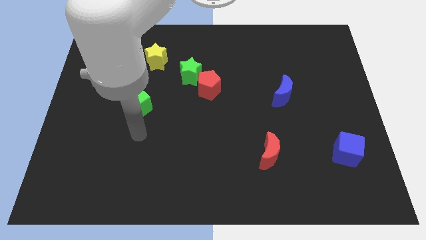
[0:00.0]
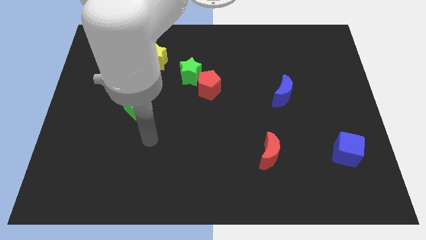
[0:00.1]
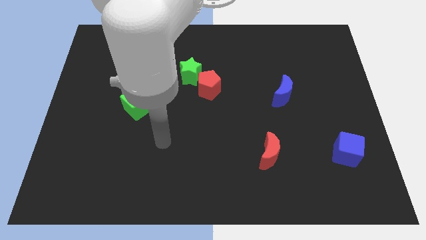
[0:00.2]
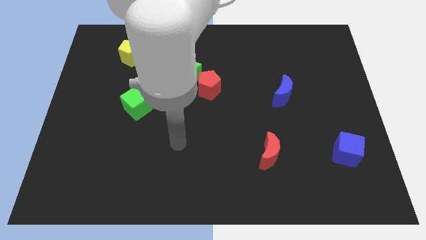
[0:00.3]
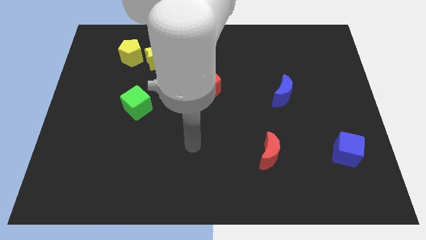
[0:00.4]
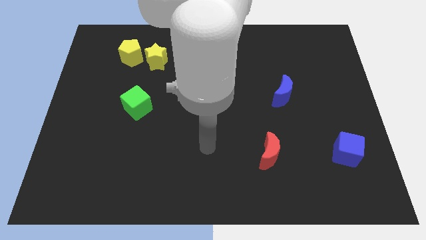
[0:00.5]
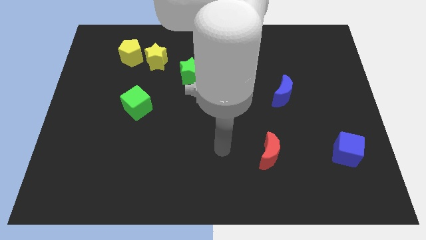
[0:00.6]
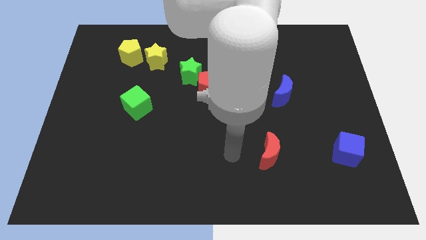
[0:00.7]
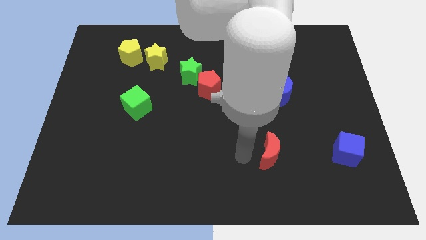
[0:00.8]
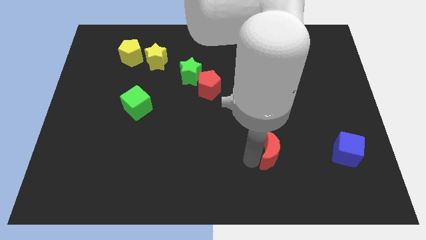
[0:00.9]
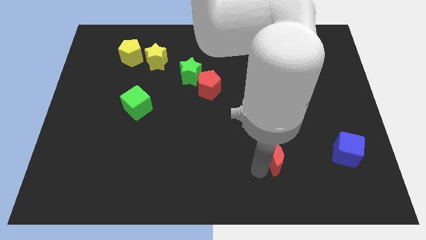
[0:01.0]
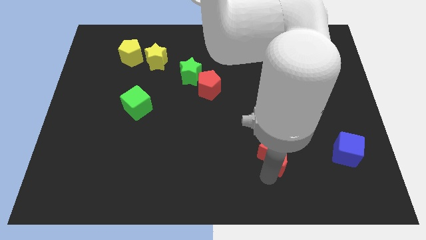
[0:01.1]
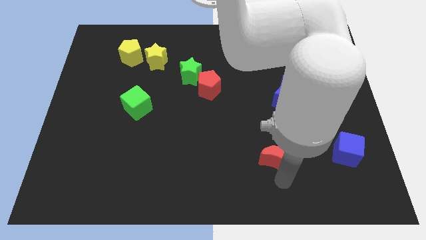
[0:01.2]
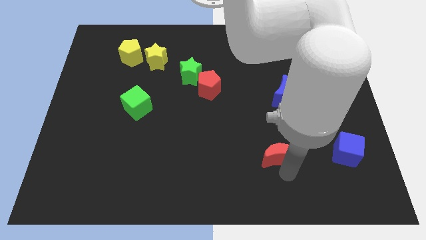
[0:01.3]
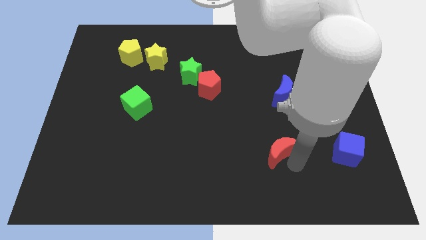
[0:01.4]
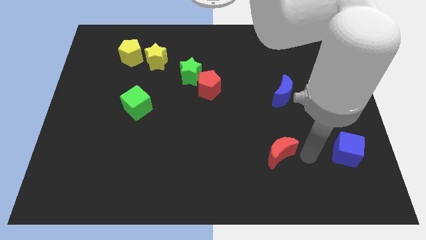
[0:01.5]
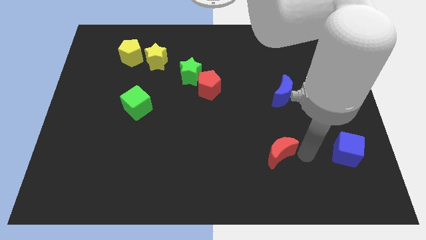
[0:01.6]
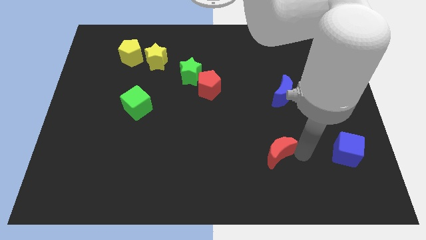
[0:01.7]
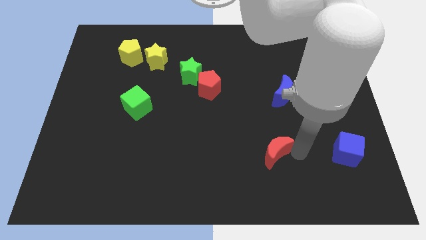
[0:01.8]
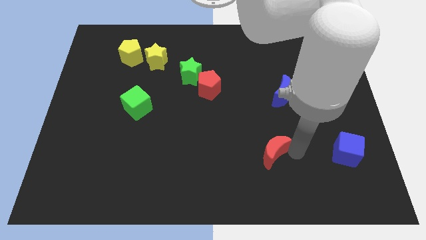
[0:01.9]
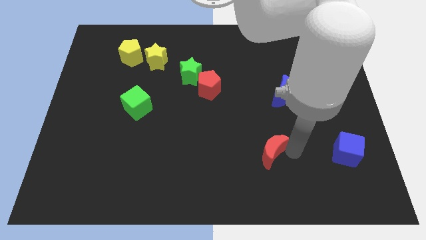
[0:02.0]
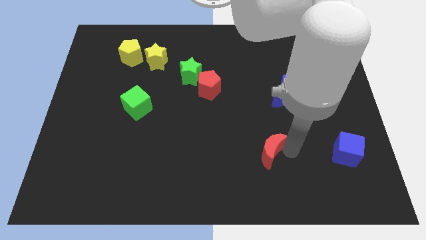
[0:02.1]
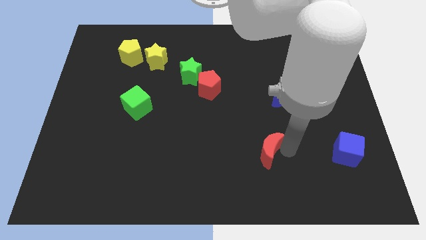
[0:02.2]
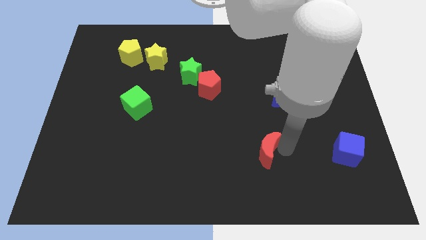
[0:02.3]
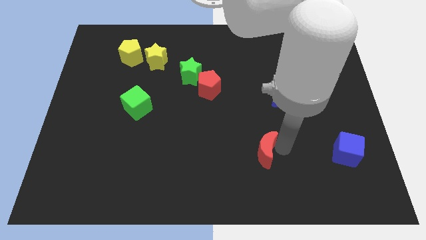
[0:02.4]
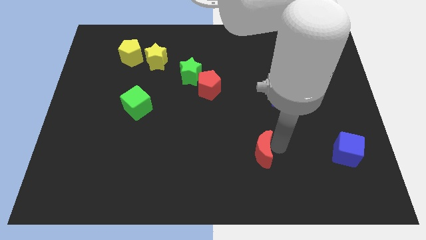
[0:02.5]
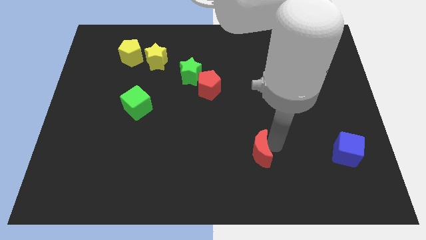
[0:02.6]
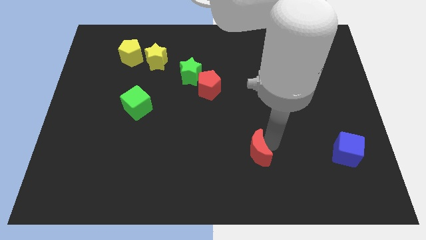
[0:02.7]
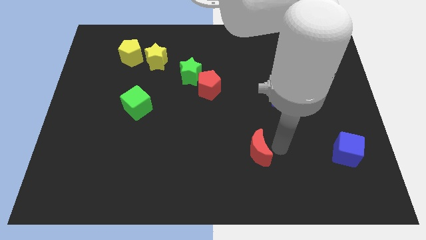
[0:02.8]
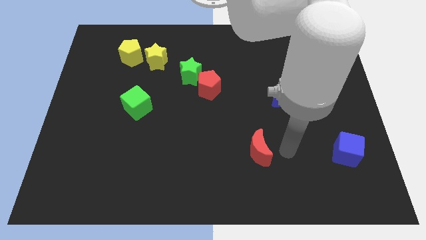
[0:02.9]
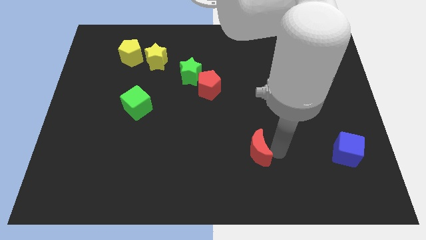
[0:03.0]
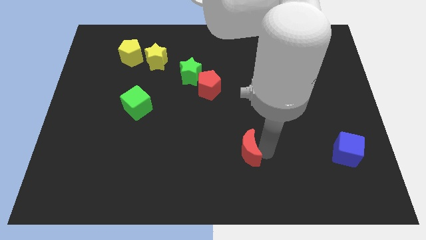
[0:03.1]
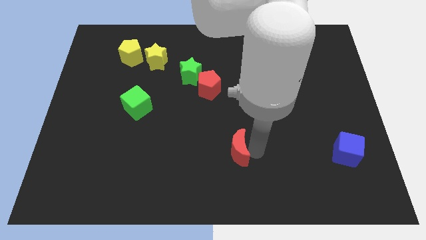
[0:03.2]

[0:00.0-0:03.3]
slightly move the red moon left

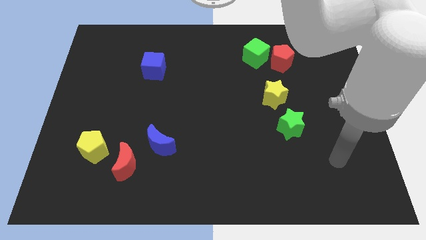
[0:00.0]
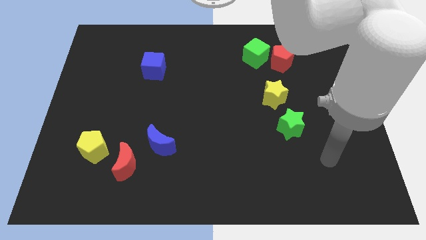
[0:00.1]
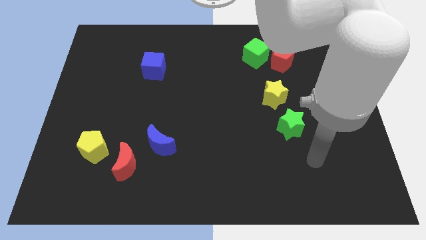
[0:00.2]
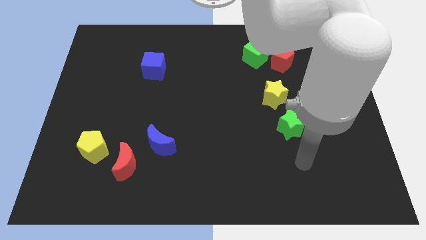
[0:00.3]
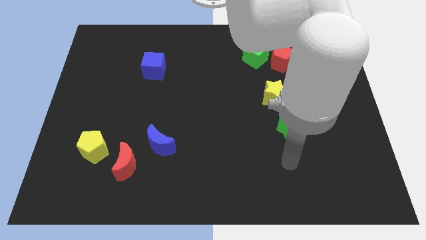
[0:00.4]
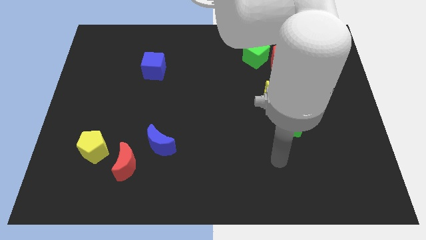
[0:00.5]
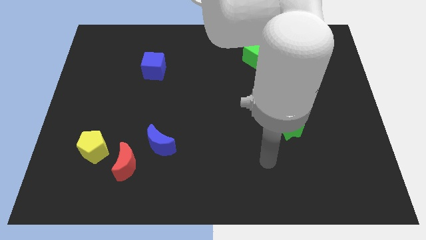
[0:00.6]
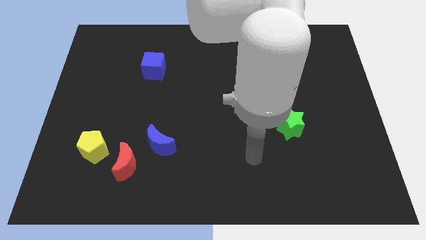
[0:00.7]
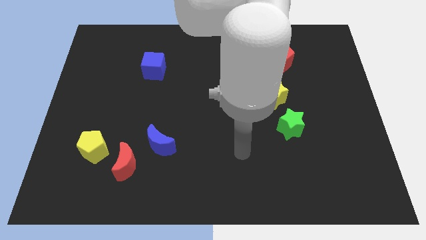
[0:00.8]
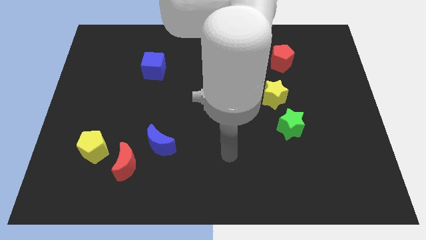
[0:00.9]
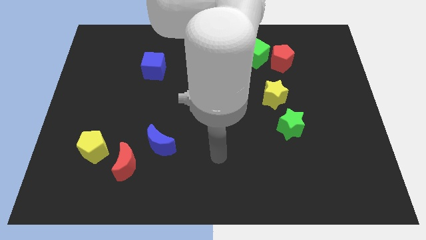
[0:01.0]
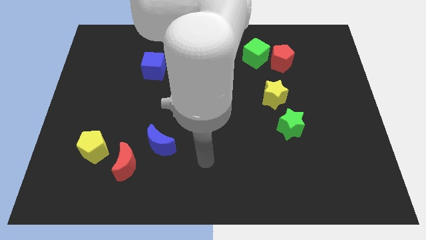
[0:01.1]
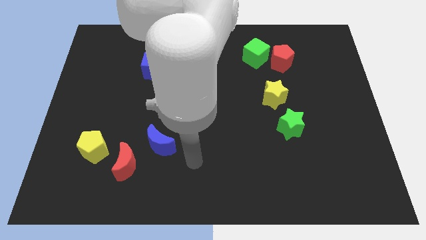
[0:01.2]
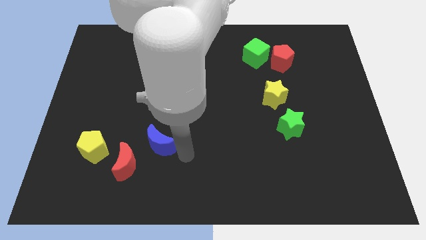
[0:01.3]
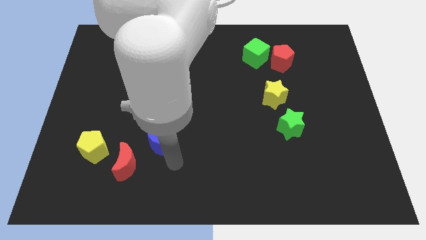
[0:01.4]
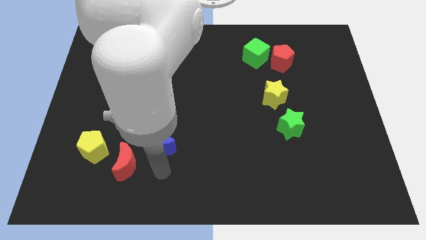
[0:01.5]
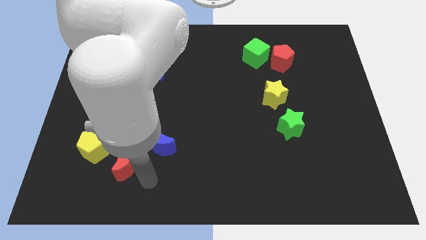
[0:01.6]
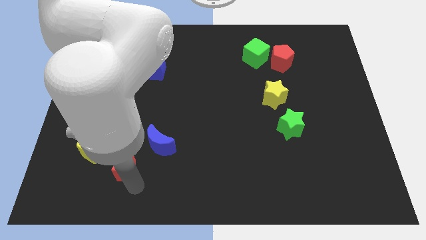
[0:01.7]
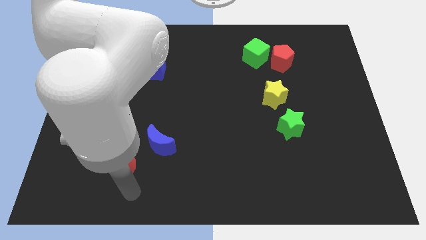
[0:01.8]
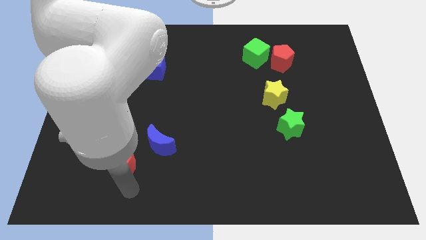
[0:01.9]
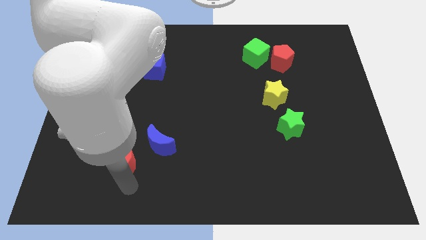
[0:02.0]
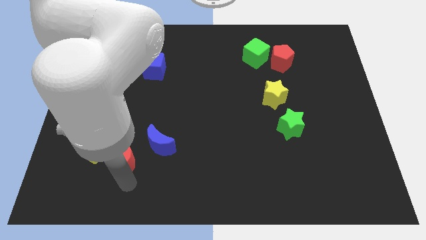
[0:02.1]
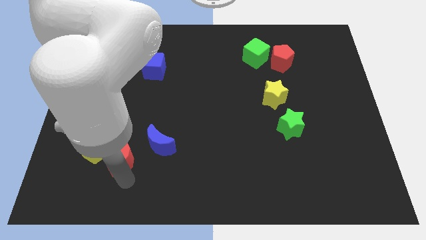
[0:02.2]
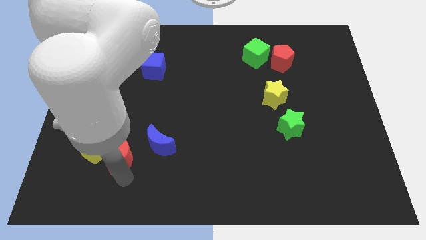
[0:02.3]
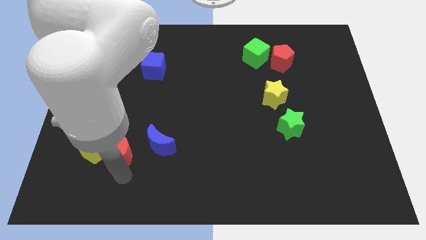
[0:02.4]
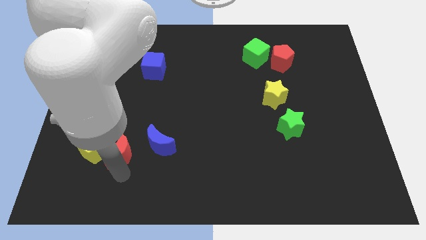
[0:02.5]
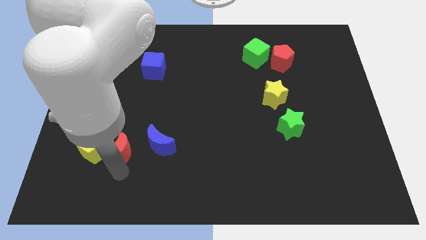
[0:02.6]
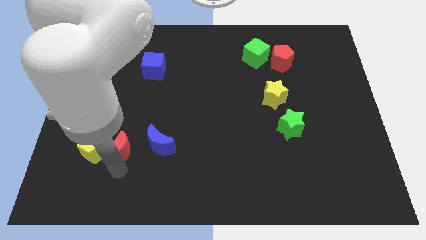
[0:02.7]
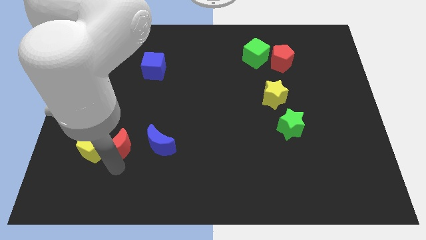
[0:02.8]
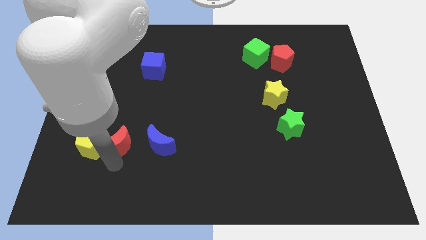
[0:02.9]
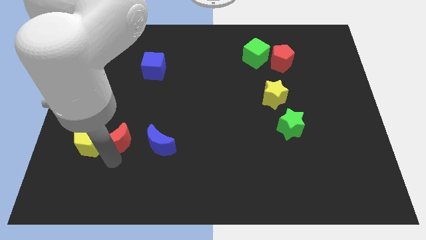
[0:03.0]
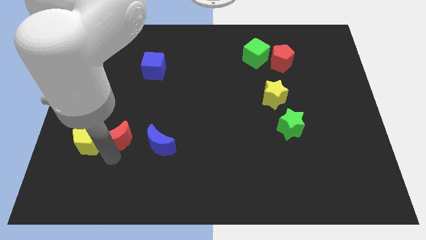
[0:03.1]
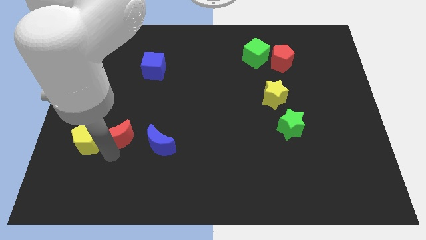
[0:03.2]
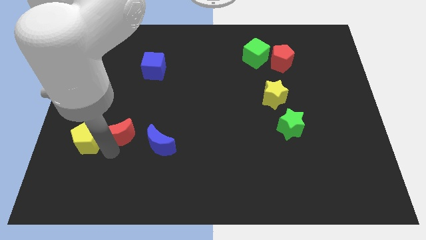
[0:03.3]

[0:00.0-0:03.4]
push the red moon a little bit up

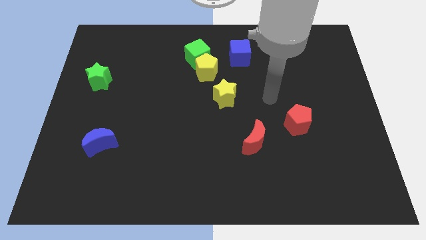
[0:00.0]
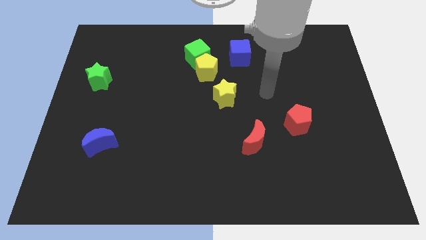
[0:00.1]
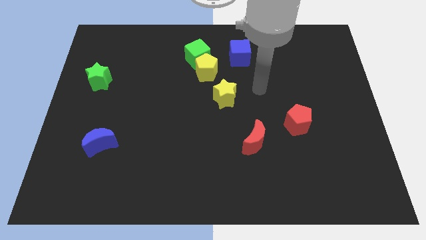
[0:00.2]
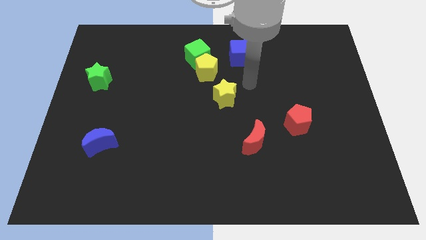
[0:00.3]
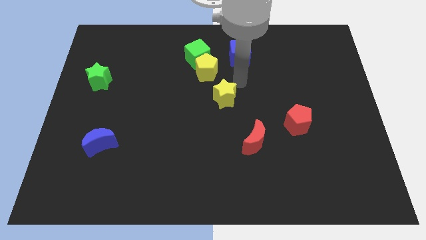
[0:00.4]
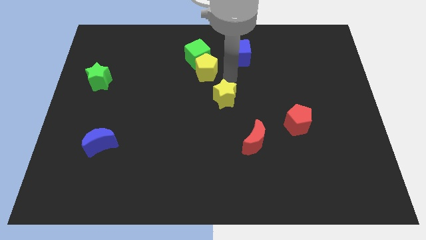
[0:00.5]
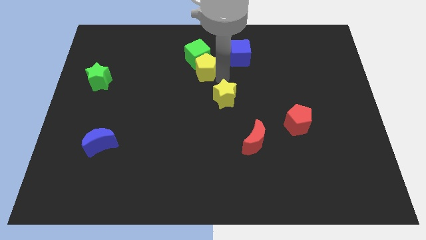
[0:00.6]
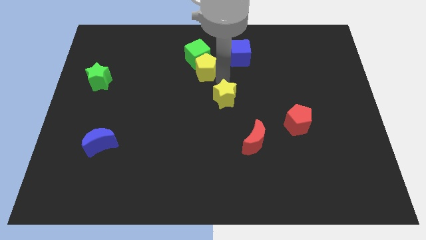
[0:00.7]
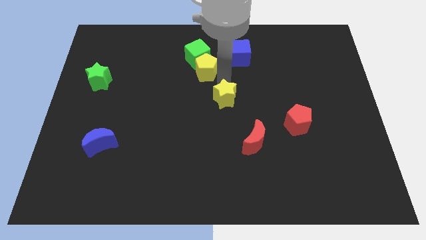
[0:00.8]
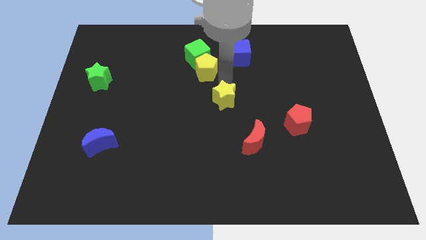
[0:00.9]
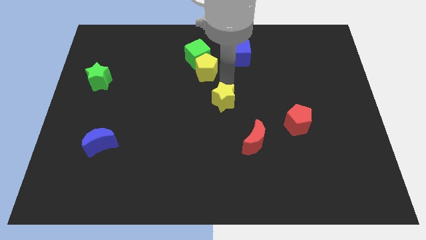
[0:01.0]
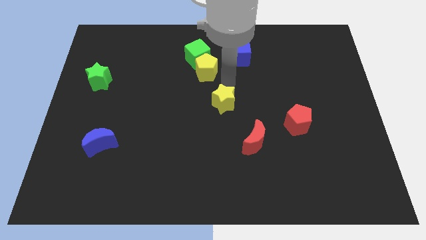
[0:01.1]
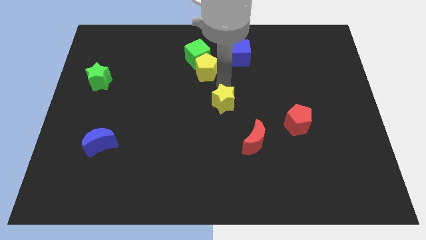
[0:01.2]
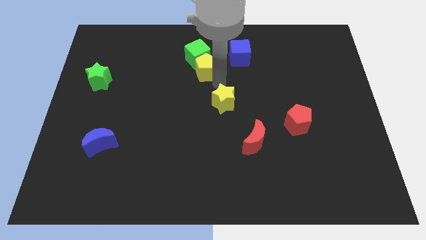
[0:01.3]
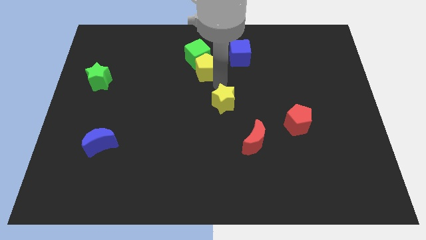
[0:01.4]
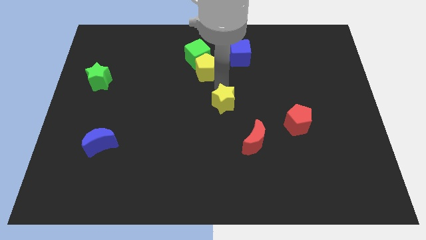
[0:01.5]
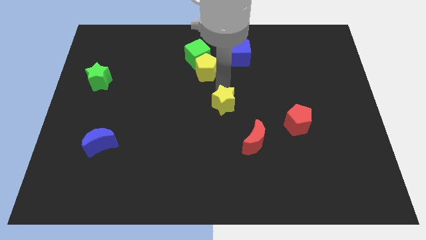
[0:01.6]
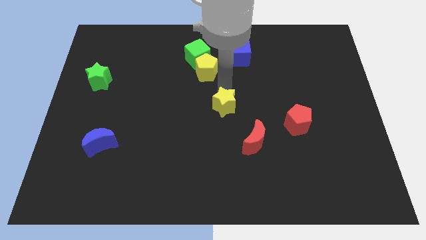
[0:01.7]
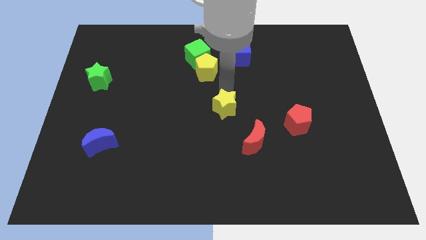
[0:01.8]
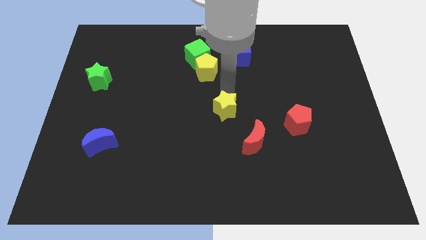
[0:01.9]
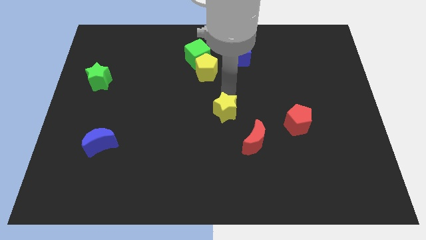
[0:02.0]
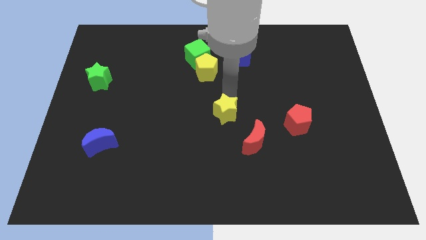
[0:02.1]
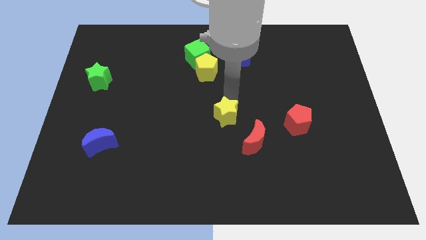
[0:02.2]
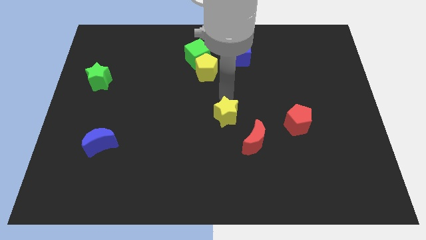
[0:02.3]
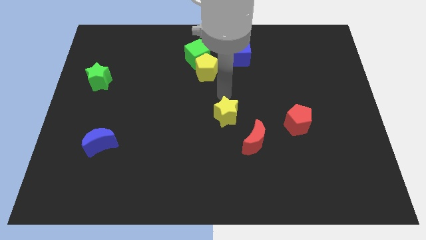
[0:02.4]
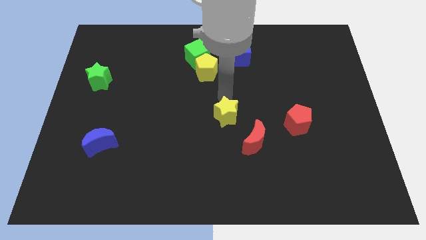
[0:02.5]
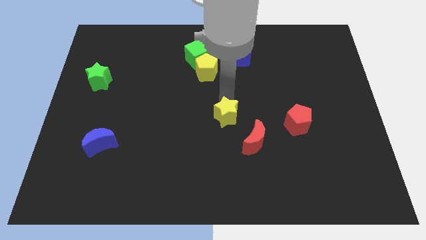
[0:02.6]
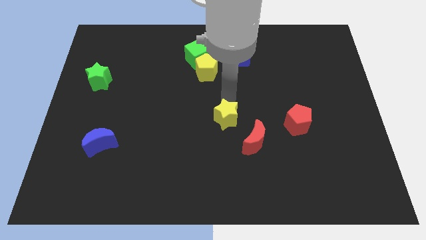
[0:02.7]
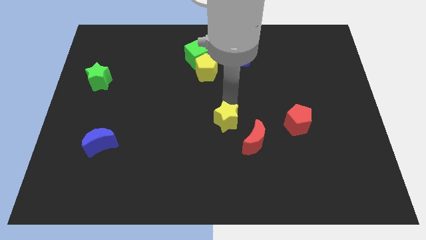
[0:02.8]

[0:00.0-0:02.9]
slightly slide the yellow star downwards
